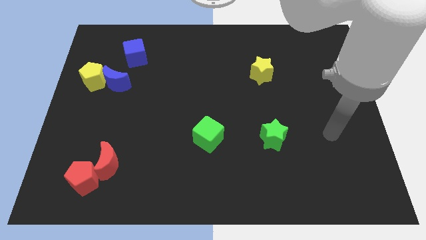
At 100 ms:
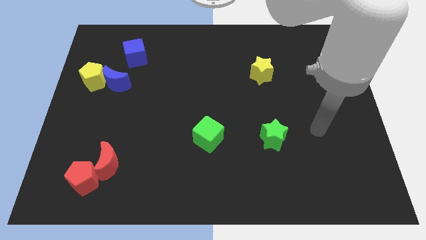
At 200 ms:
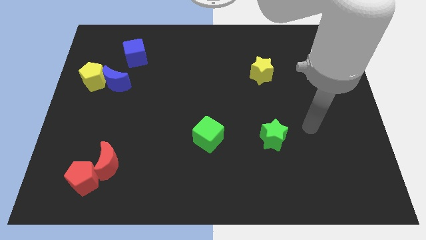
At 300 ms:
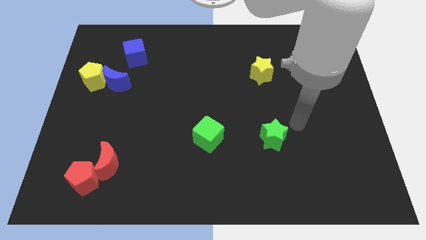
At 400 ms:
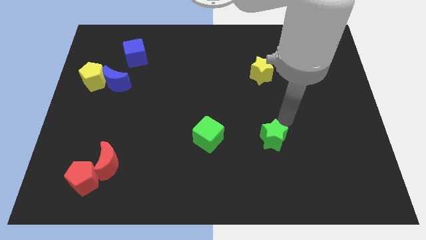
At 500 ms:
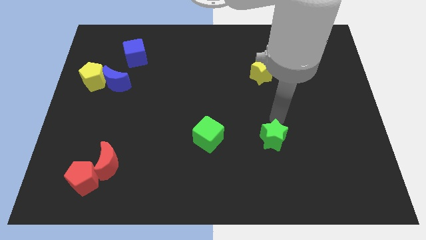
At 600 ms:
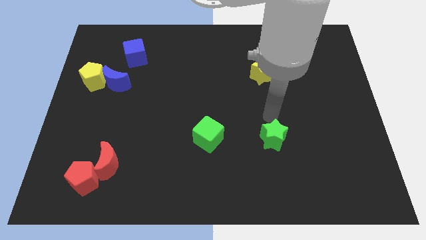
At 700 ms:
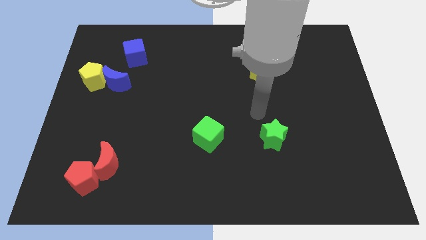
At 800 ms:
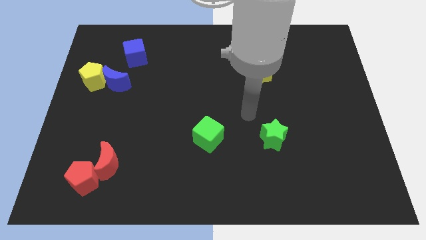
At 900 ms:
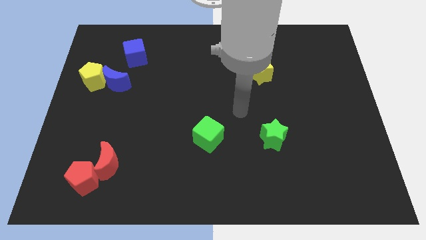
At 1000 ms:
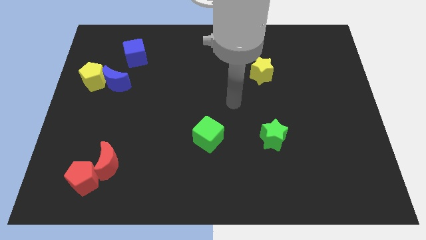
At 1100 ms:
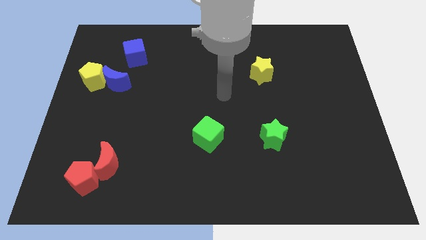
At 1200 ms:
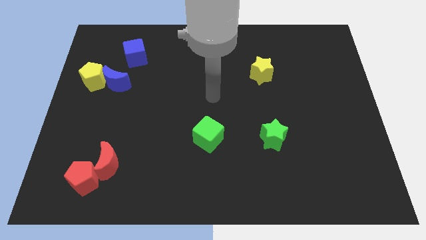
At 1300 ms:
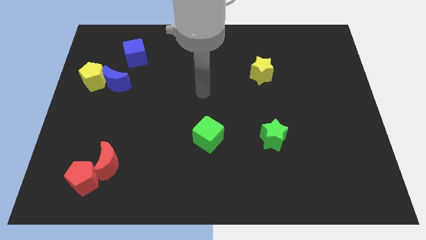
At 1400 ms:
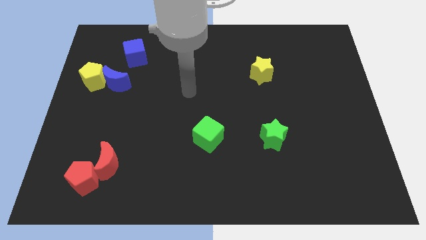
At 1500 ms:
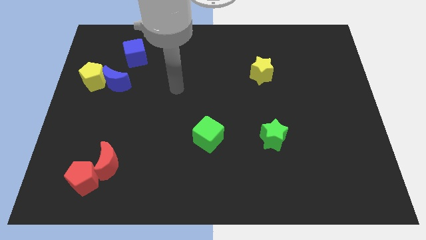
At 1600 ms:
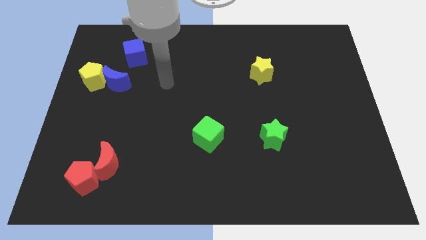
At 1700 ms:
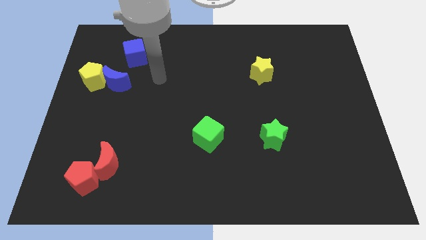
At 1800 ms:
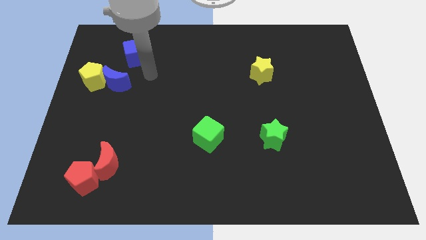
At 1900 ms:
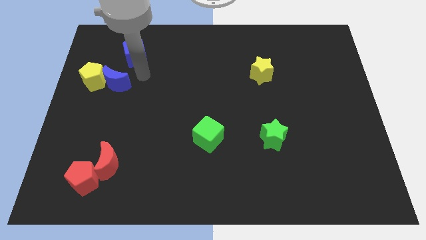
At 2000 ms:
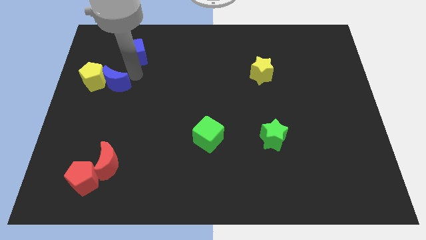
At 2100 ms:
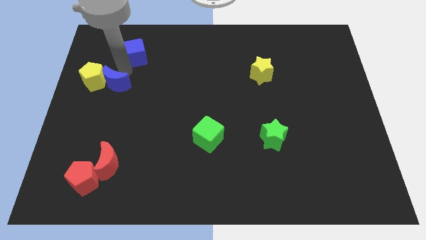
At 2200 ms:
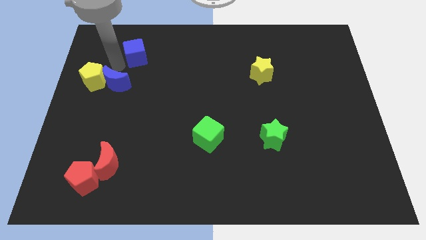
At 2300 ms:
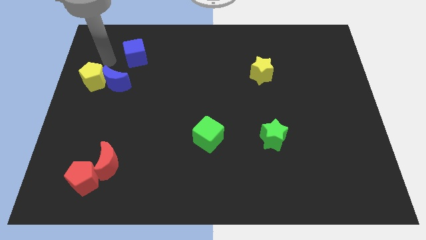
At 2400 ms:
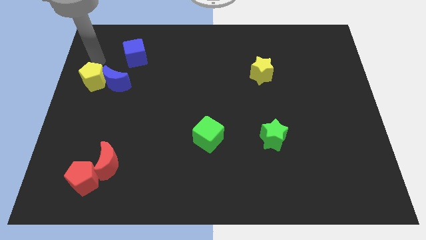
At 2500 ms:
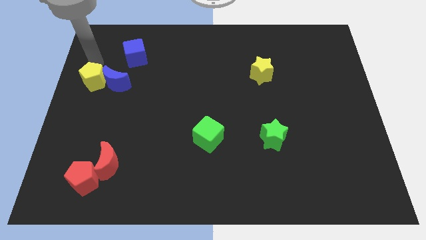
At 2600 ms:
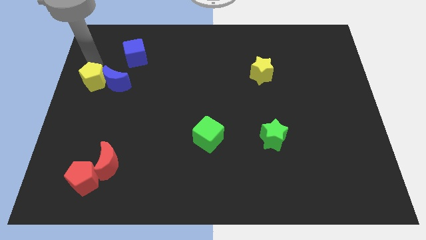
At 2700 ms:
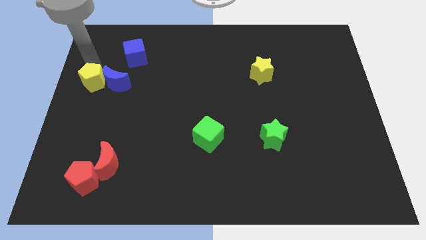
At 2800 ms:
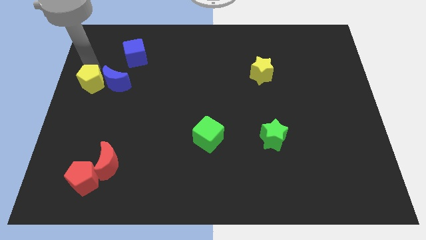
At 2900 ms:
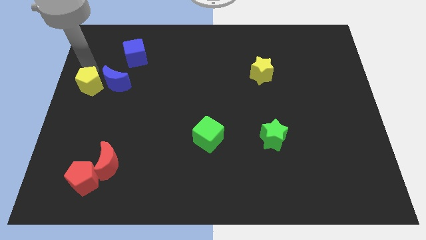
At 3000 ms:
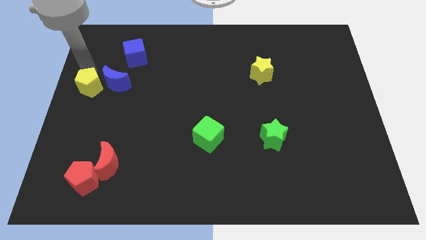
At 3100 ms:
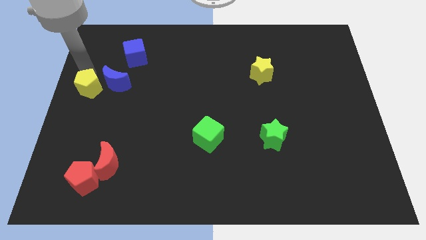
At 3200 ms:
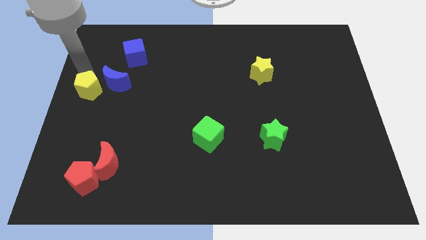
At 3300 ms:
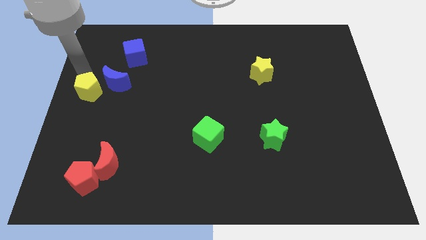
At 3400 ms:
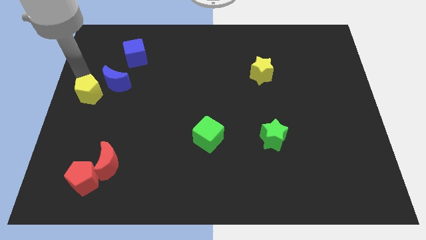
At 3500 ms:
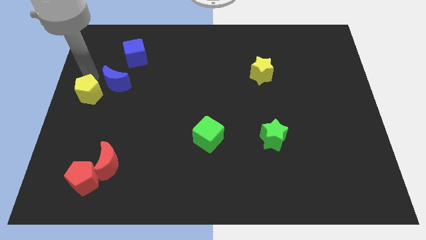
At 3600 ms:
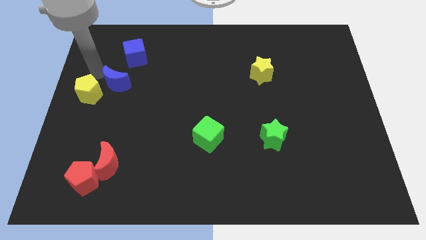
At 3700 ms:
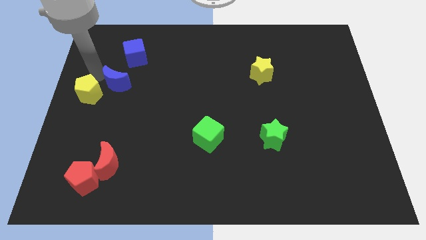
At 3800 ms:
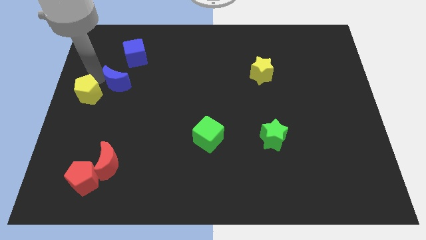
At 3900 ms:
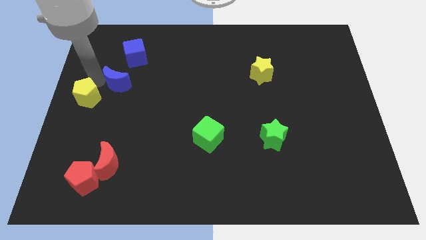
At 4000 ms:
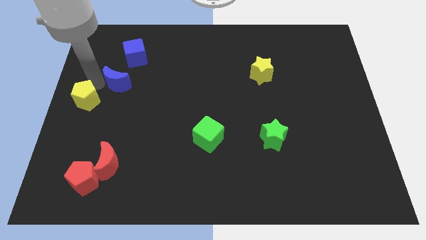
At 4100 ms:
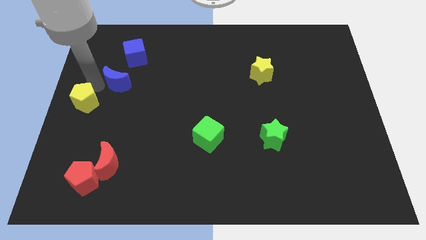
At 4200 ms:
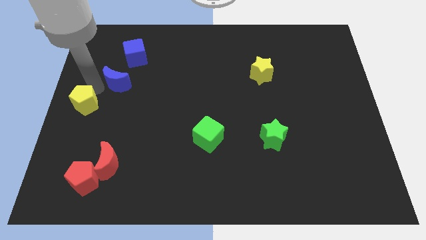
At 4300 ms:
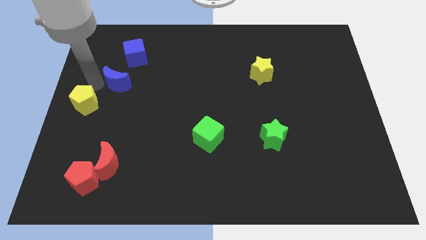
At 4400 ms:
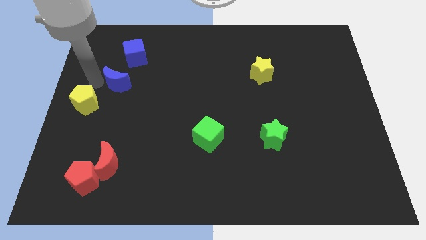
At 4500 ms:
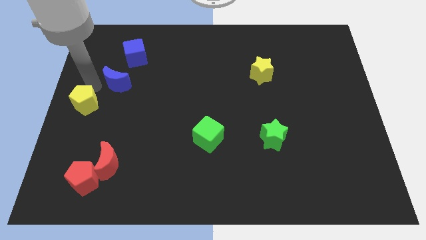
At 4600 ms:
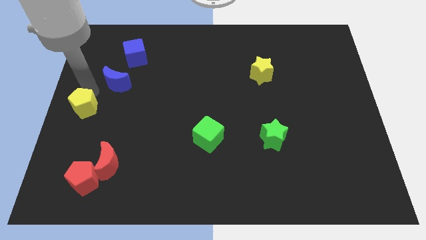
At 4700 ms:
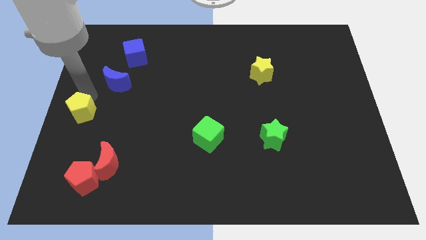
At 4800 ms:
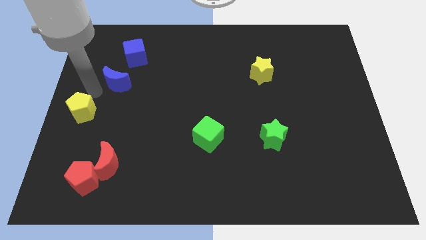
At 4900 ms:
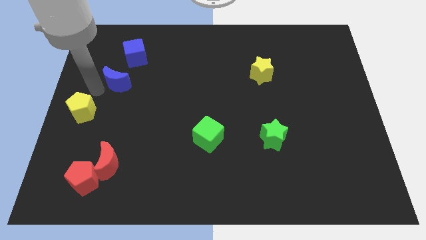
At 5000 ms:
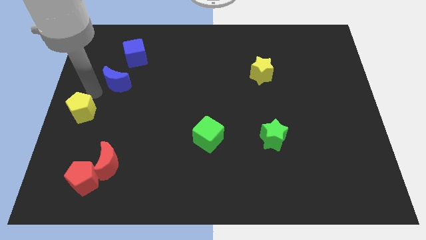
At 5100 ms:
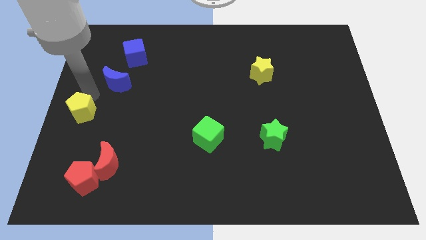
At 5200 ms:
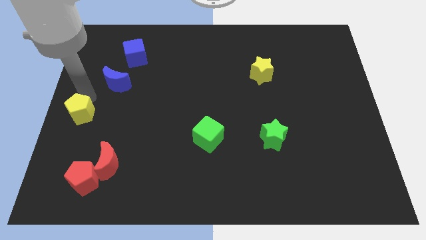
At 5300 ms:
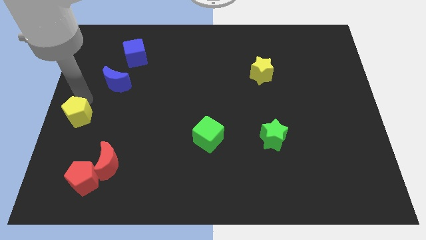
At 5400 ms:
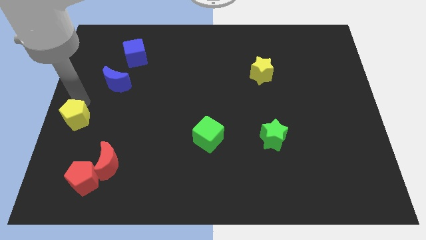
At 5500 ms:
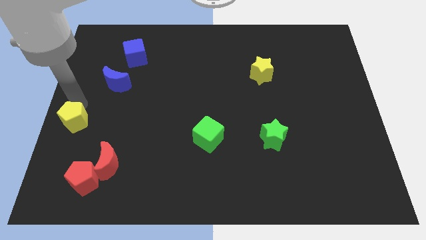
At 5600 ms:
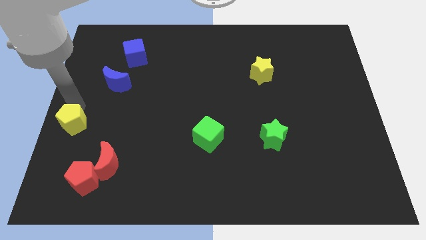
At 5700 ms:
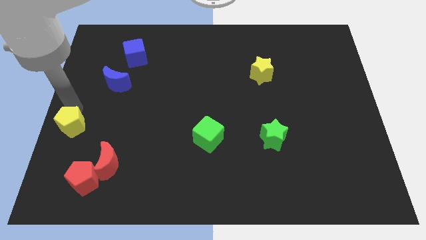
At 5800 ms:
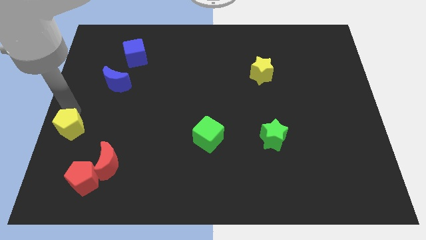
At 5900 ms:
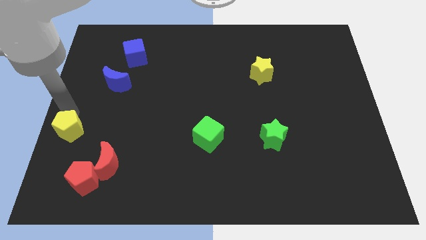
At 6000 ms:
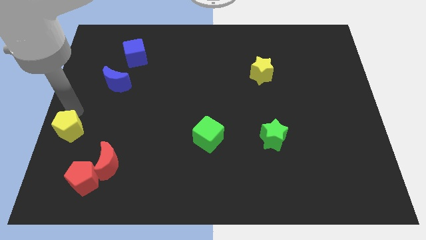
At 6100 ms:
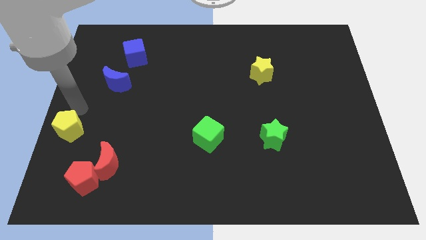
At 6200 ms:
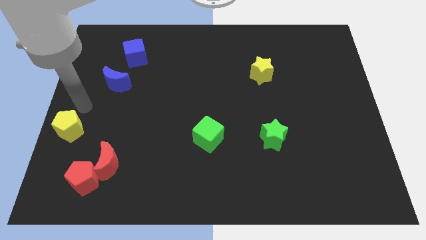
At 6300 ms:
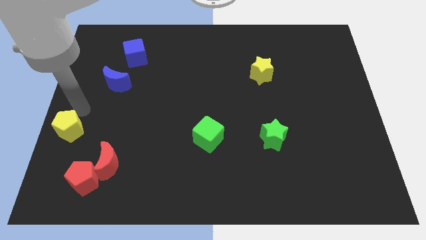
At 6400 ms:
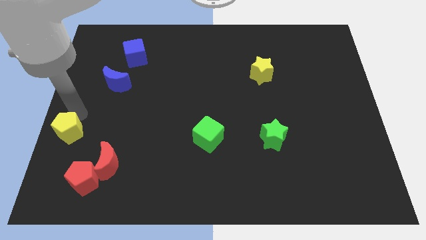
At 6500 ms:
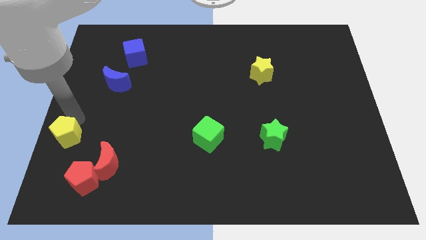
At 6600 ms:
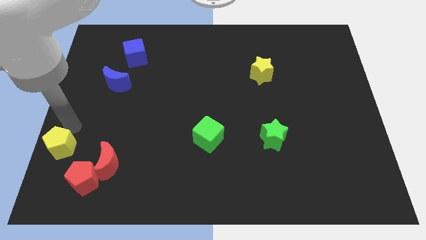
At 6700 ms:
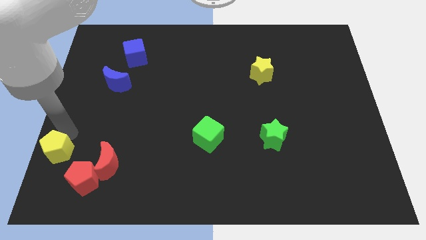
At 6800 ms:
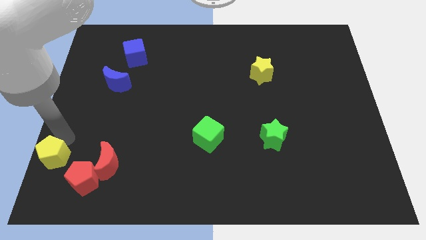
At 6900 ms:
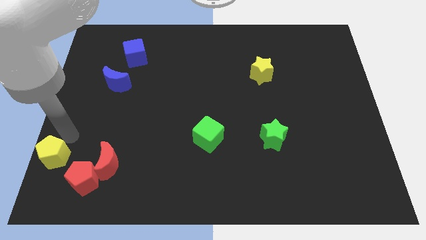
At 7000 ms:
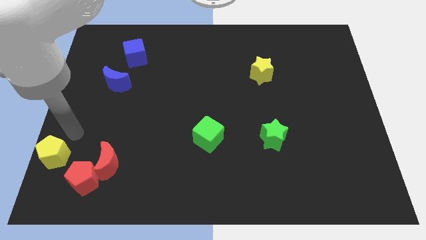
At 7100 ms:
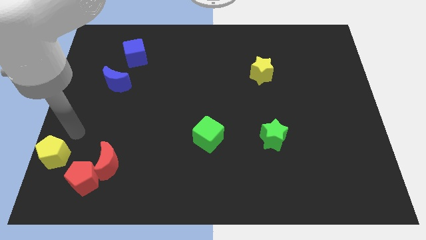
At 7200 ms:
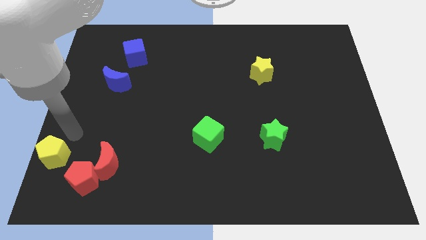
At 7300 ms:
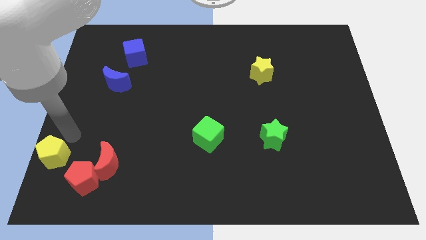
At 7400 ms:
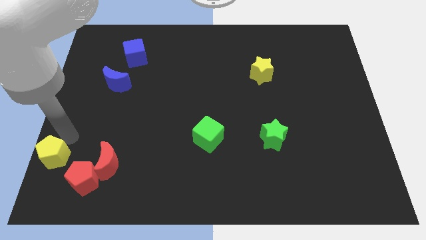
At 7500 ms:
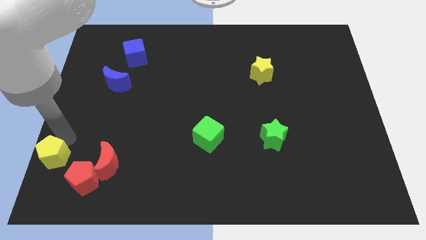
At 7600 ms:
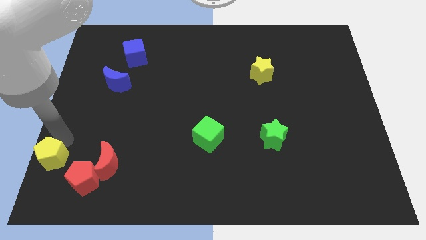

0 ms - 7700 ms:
push the yellow pentagon to the lower left corner
